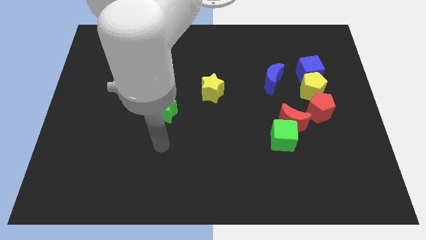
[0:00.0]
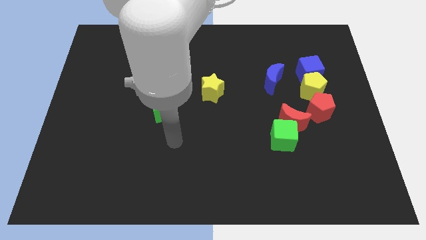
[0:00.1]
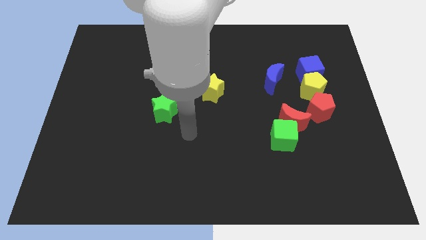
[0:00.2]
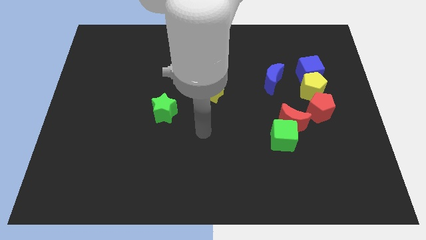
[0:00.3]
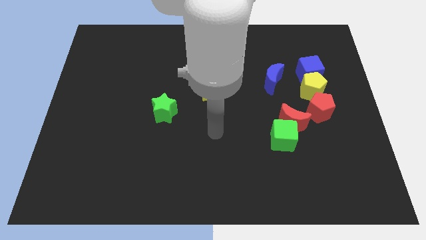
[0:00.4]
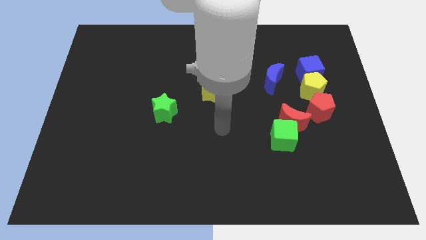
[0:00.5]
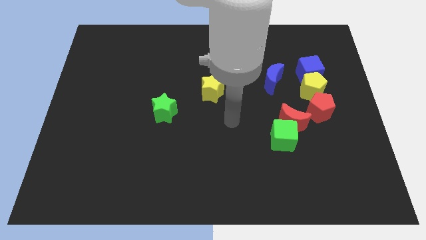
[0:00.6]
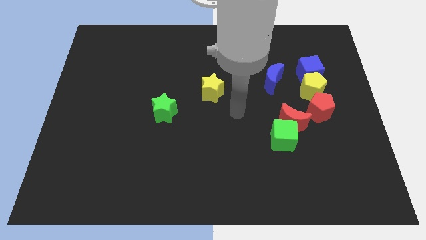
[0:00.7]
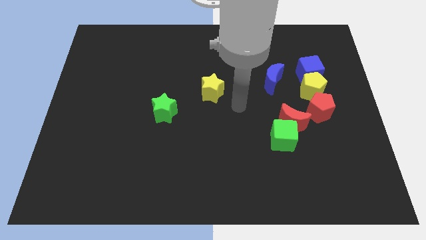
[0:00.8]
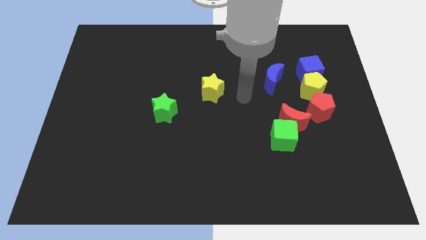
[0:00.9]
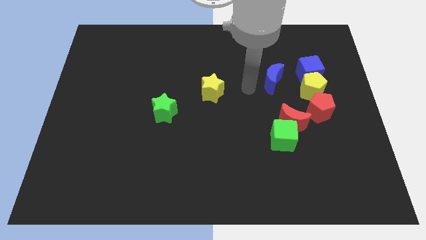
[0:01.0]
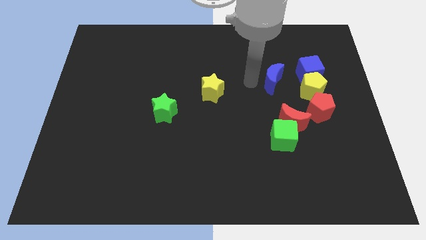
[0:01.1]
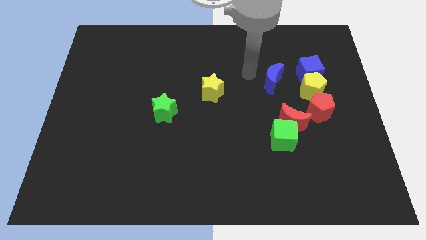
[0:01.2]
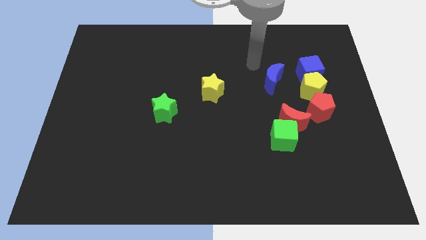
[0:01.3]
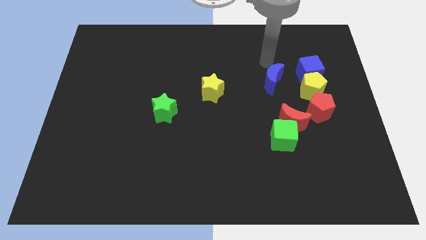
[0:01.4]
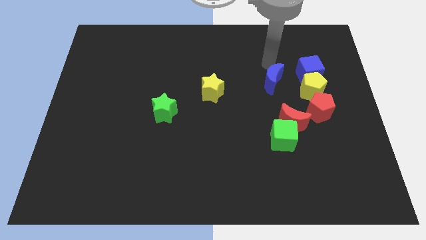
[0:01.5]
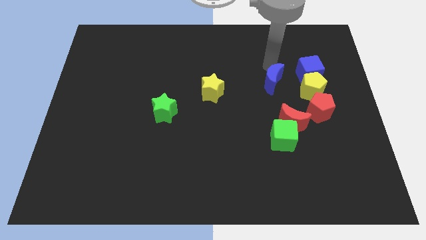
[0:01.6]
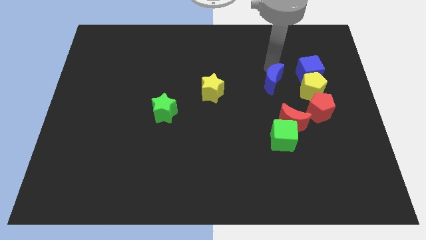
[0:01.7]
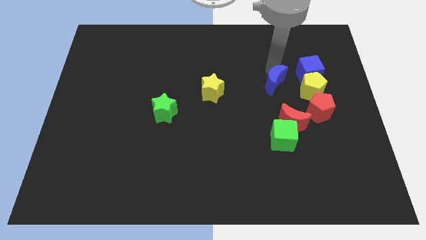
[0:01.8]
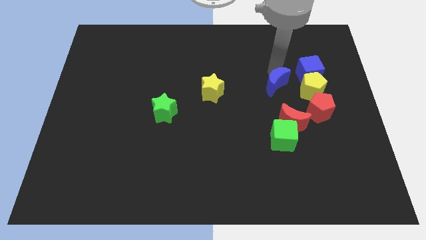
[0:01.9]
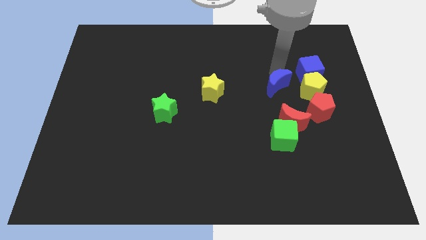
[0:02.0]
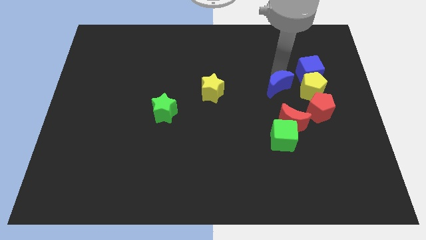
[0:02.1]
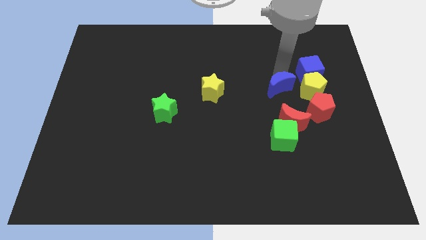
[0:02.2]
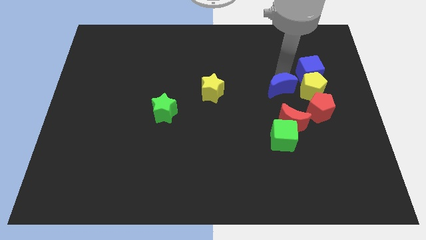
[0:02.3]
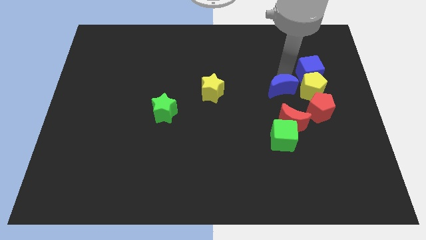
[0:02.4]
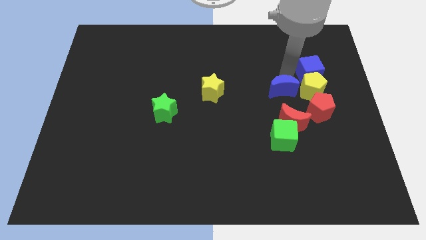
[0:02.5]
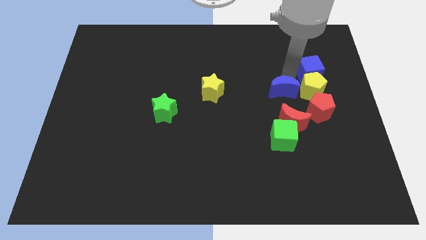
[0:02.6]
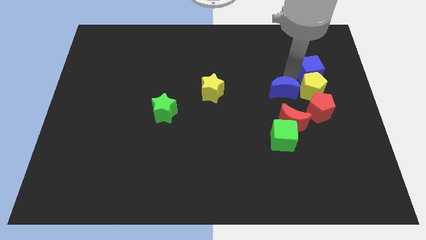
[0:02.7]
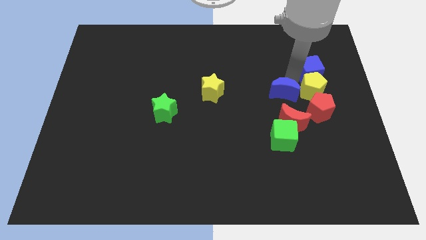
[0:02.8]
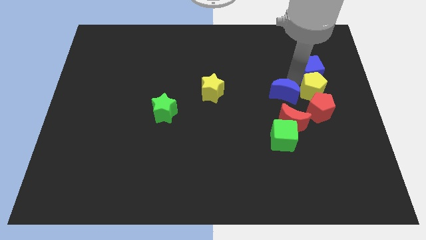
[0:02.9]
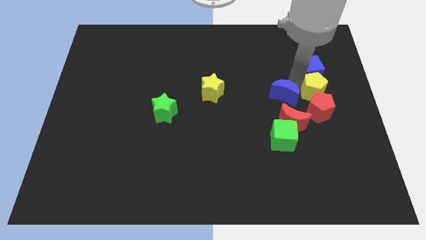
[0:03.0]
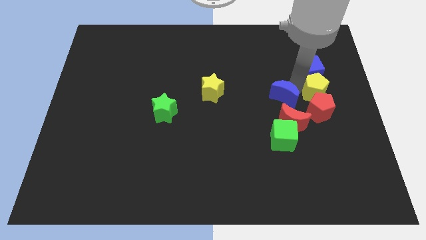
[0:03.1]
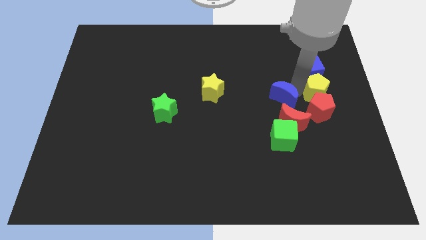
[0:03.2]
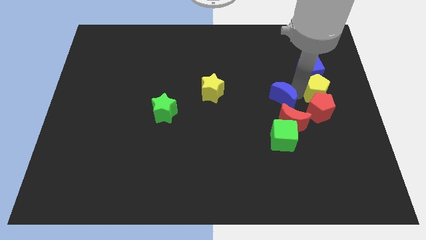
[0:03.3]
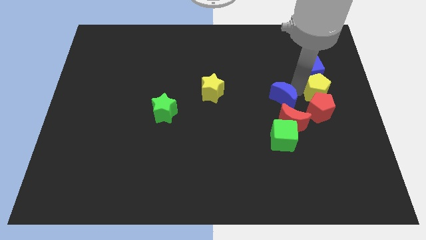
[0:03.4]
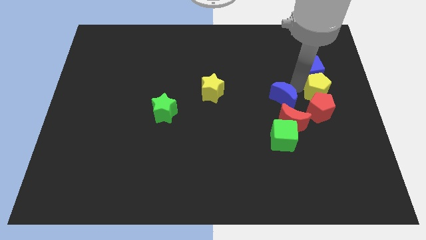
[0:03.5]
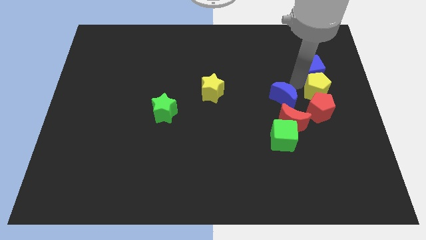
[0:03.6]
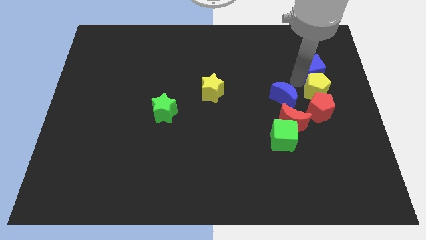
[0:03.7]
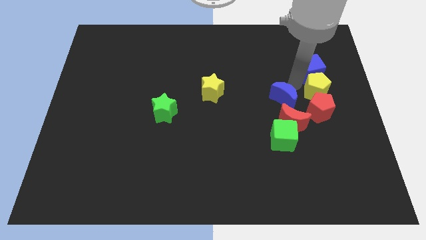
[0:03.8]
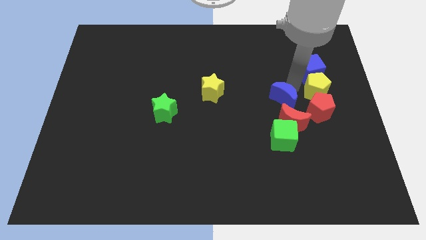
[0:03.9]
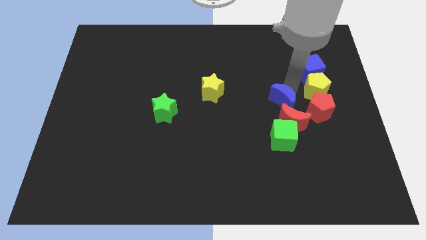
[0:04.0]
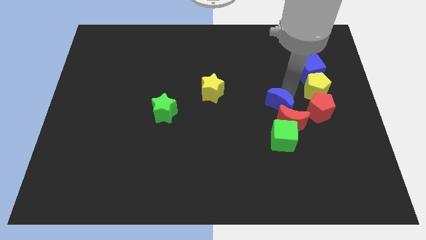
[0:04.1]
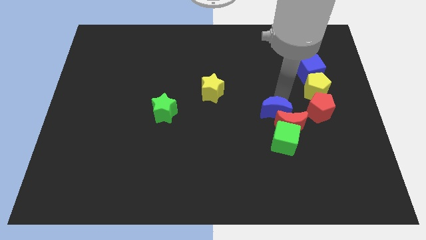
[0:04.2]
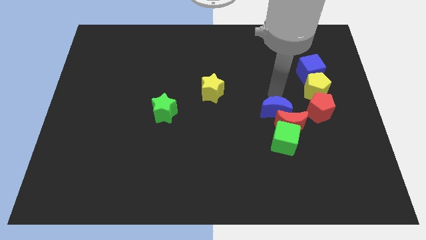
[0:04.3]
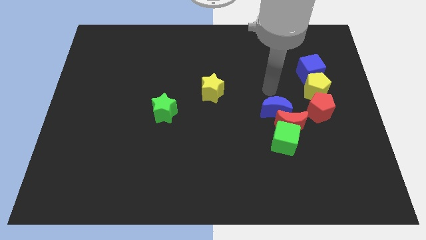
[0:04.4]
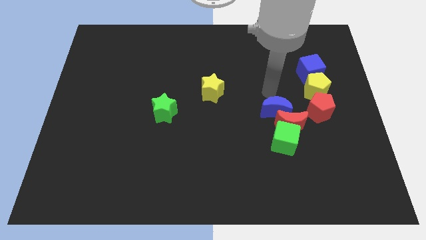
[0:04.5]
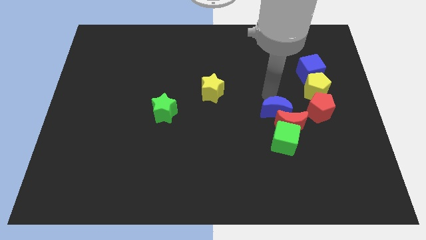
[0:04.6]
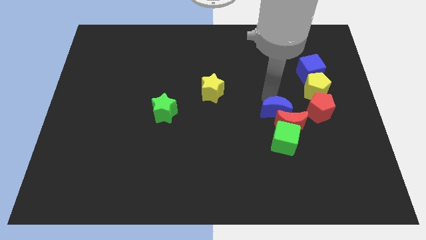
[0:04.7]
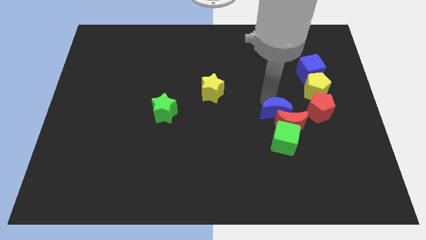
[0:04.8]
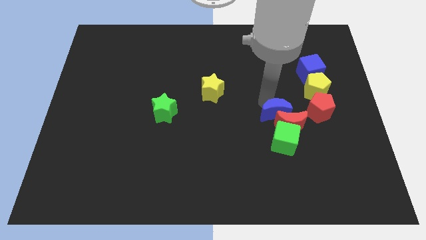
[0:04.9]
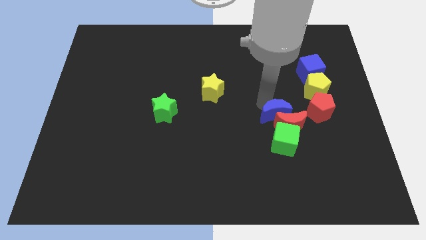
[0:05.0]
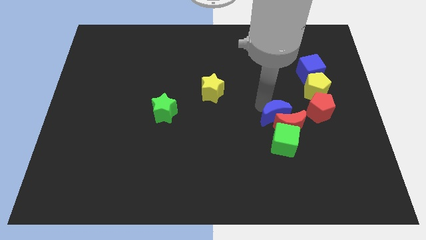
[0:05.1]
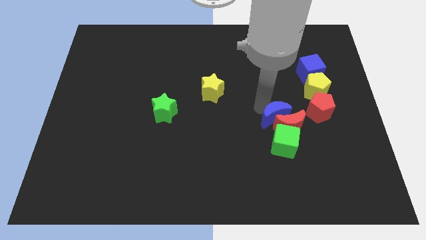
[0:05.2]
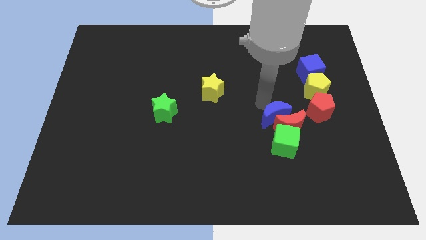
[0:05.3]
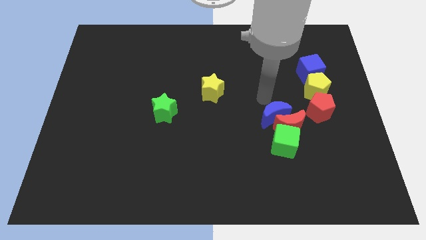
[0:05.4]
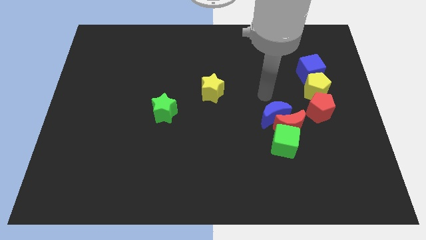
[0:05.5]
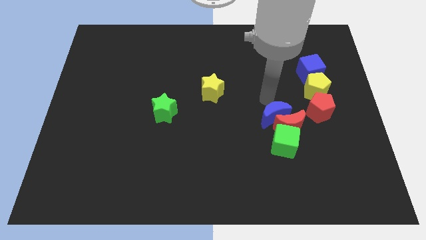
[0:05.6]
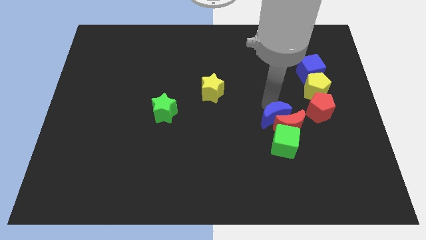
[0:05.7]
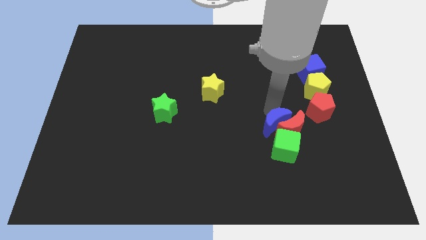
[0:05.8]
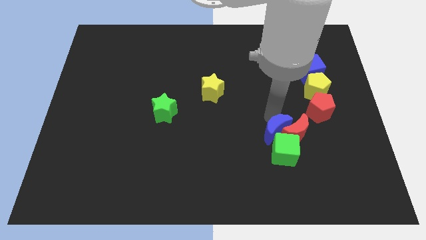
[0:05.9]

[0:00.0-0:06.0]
move the blue moon close to the green cube

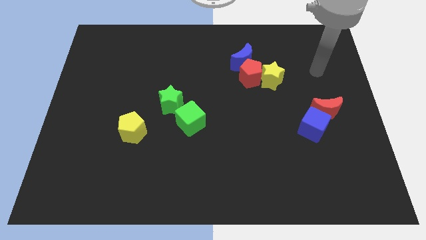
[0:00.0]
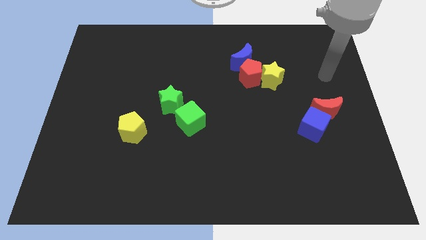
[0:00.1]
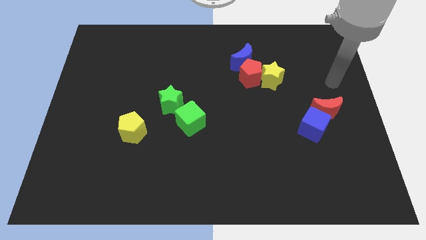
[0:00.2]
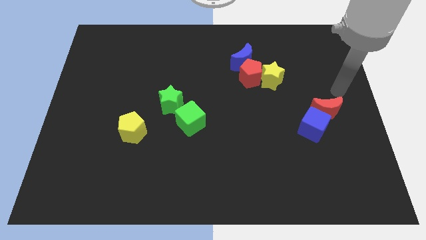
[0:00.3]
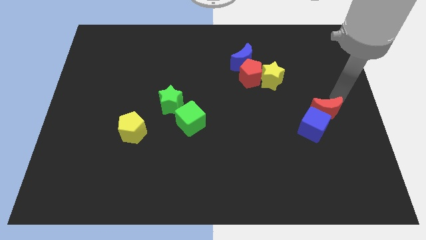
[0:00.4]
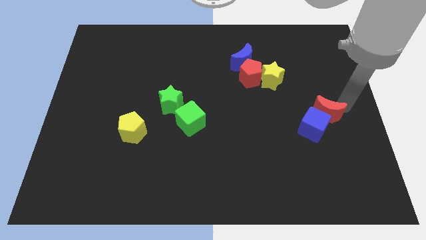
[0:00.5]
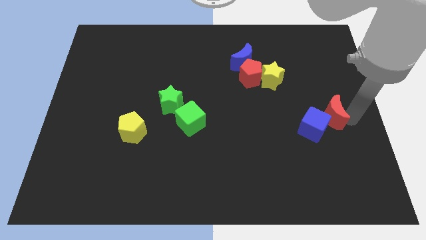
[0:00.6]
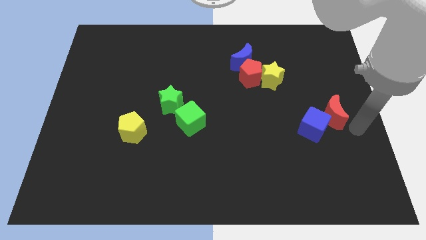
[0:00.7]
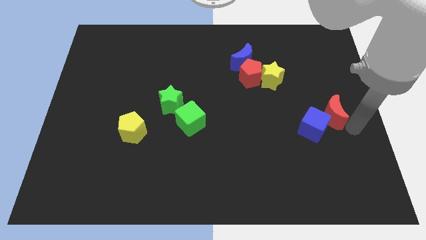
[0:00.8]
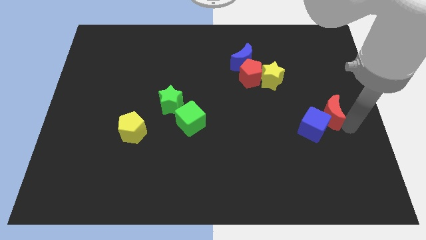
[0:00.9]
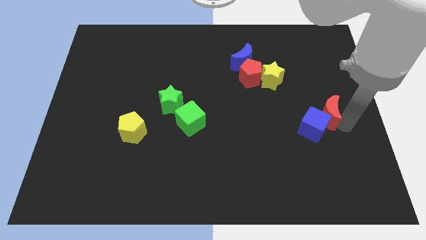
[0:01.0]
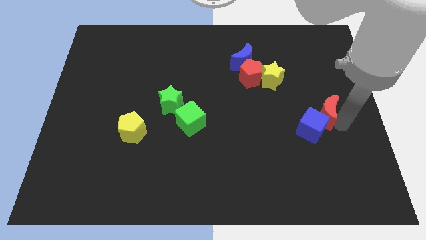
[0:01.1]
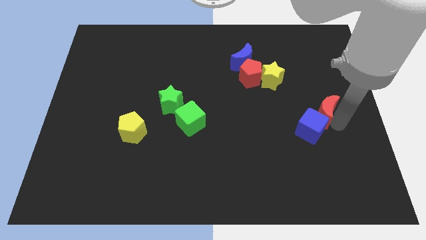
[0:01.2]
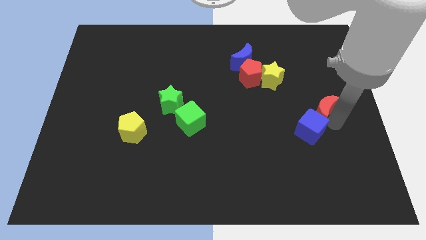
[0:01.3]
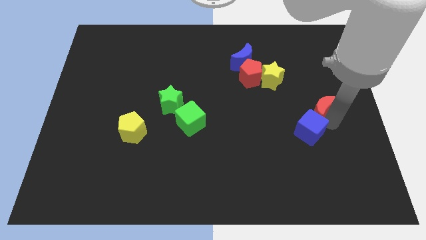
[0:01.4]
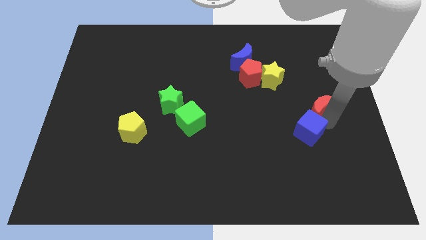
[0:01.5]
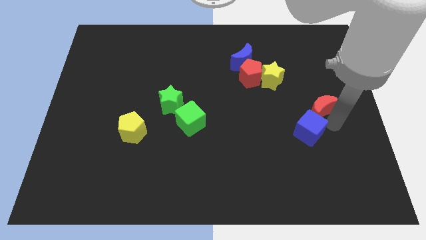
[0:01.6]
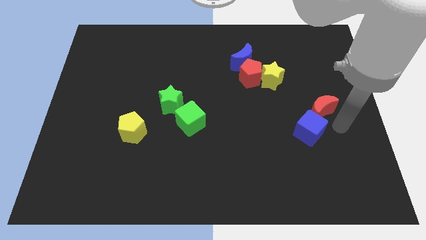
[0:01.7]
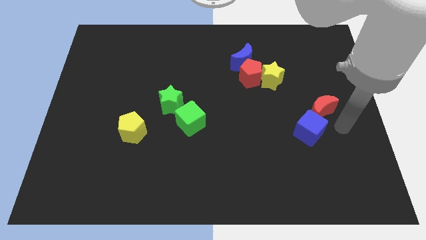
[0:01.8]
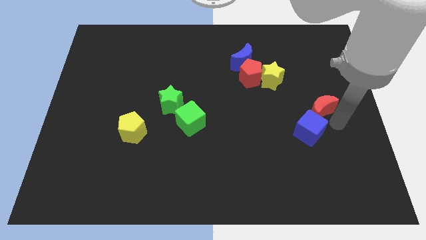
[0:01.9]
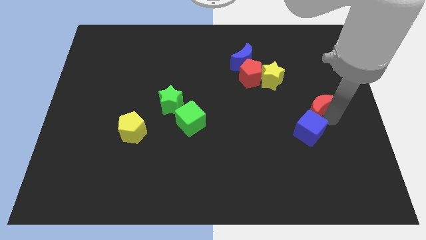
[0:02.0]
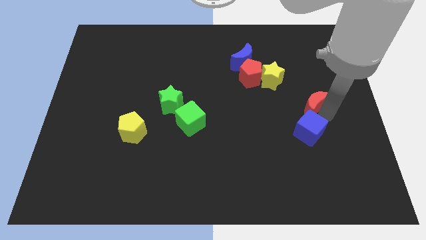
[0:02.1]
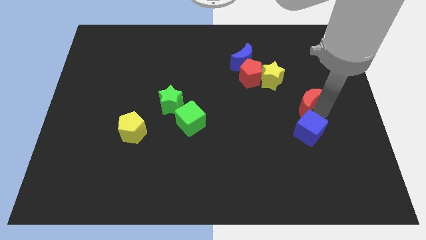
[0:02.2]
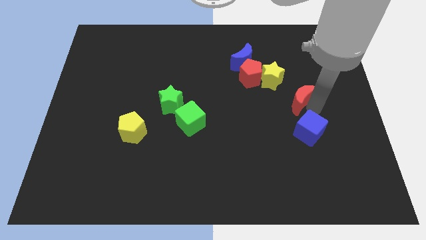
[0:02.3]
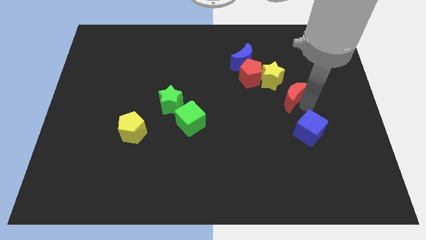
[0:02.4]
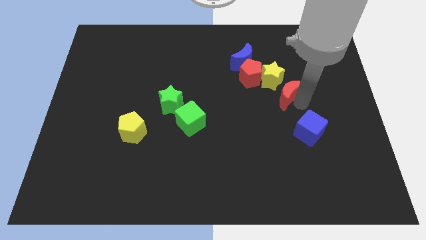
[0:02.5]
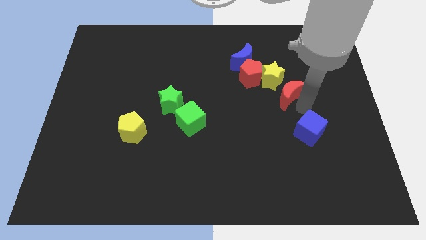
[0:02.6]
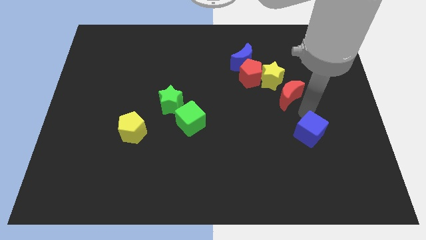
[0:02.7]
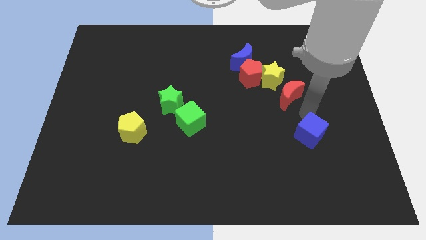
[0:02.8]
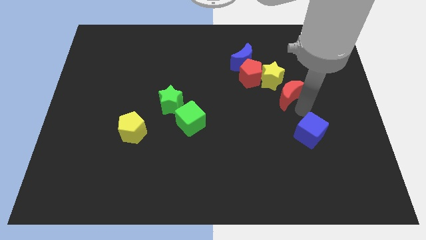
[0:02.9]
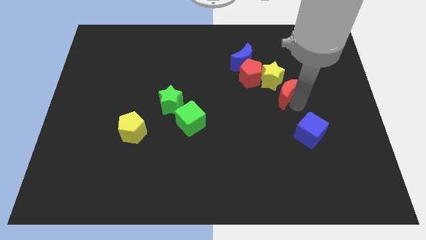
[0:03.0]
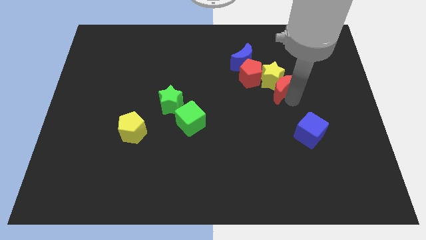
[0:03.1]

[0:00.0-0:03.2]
put the red moon next to the yellow star
